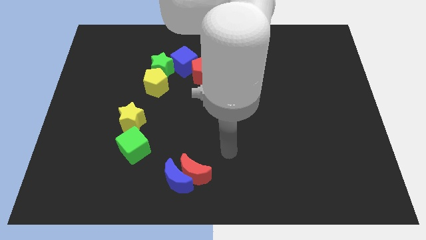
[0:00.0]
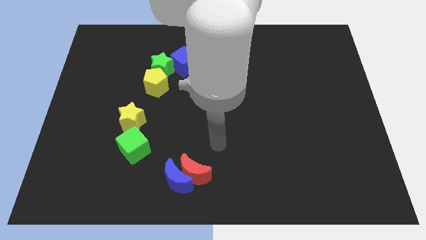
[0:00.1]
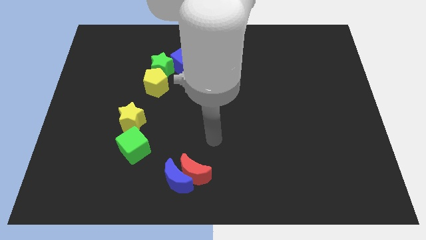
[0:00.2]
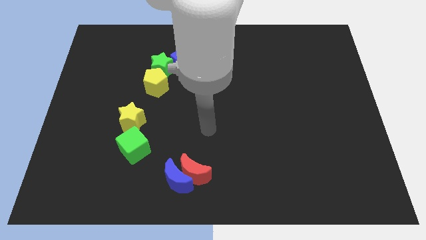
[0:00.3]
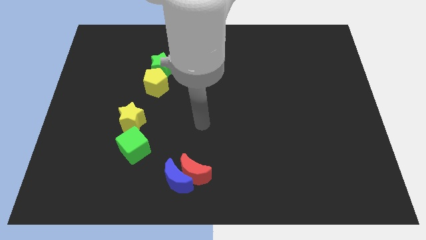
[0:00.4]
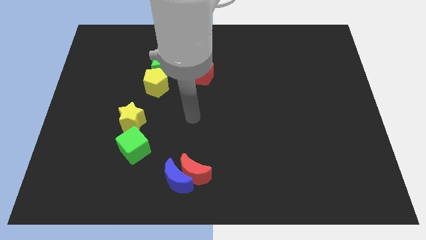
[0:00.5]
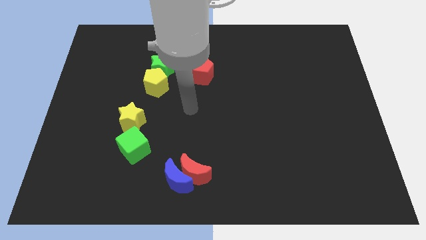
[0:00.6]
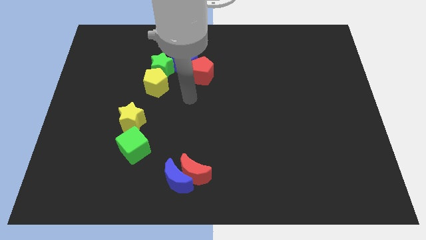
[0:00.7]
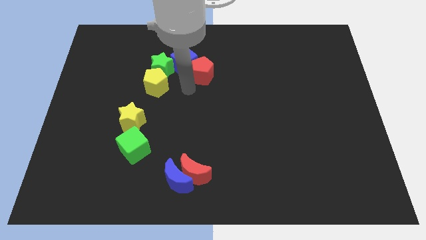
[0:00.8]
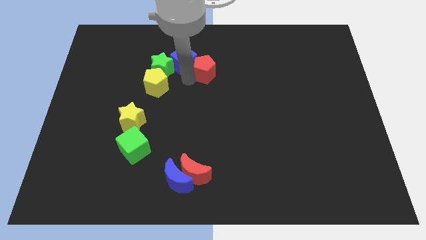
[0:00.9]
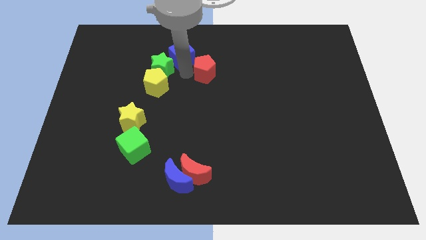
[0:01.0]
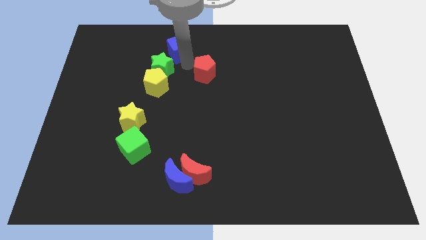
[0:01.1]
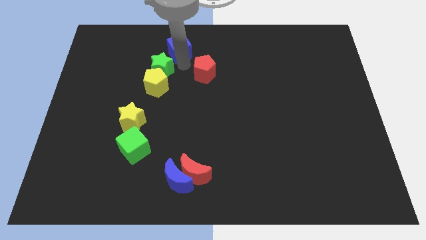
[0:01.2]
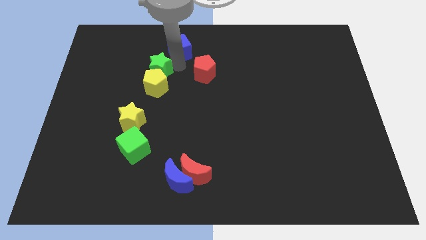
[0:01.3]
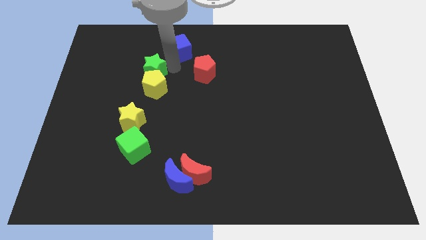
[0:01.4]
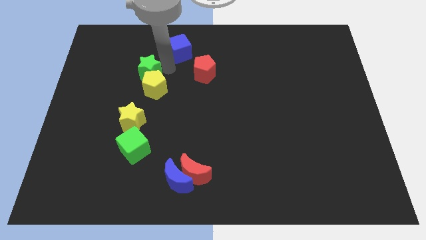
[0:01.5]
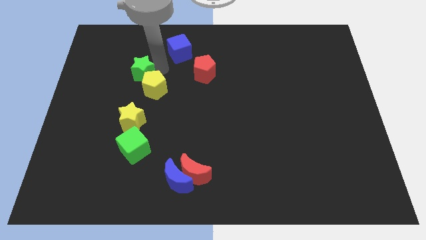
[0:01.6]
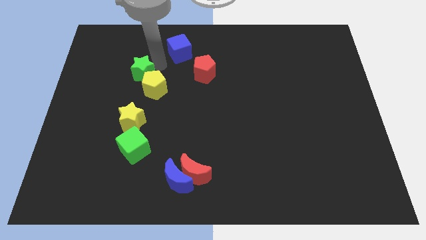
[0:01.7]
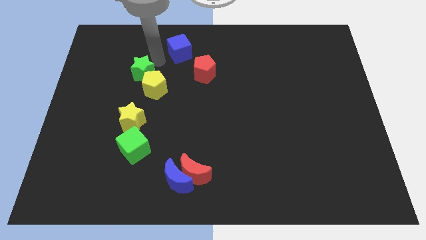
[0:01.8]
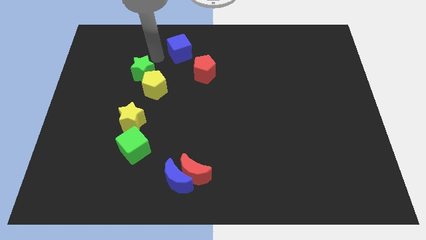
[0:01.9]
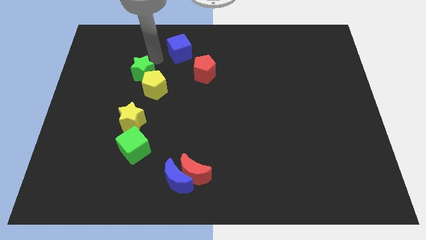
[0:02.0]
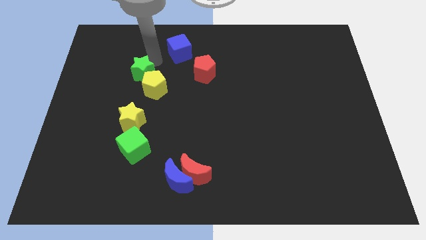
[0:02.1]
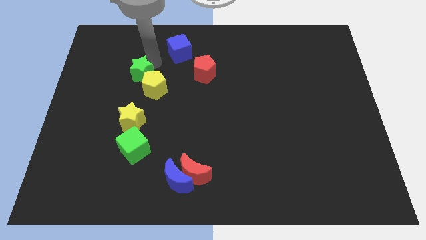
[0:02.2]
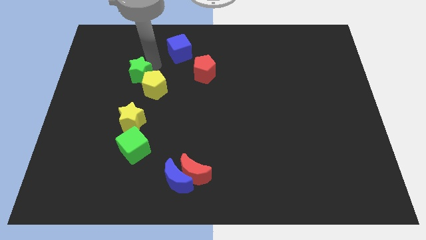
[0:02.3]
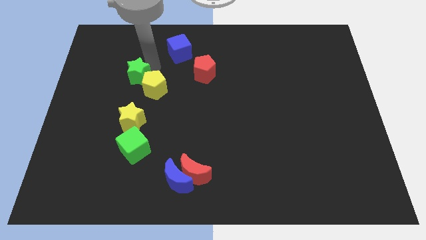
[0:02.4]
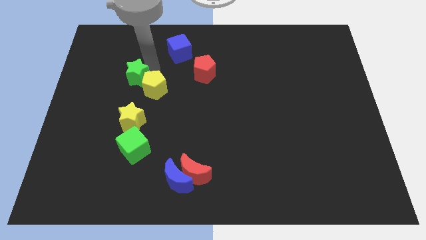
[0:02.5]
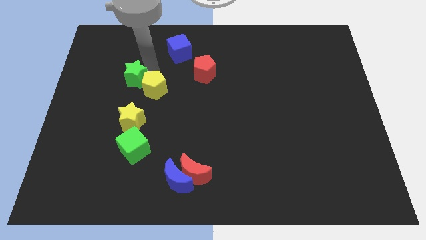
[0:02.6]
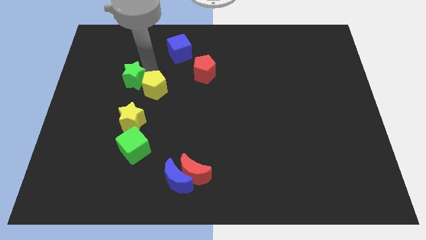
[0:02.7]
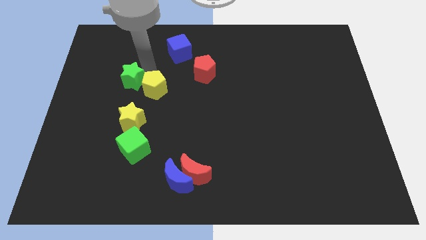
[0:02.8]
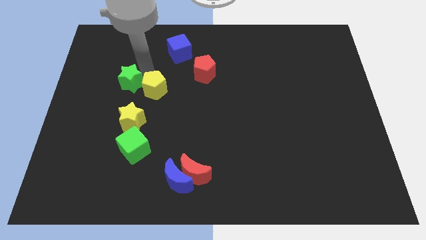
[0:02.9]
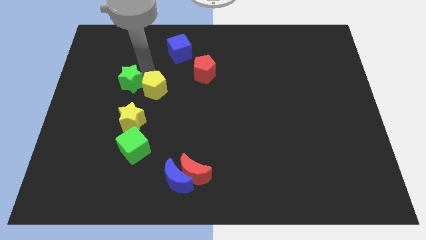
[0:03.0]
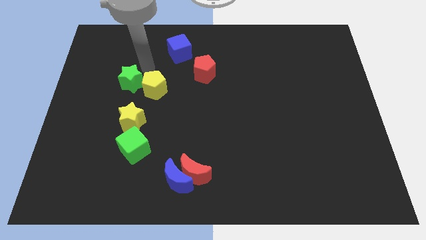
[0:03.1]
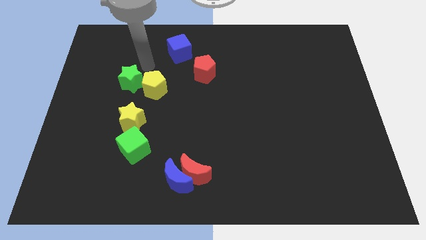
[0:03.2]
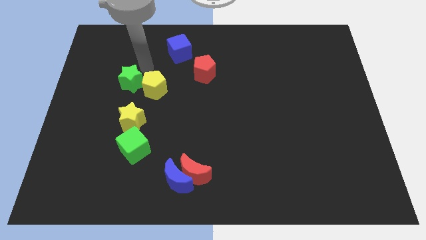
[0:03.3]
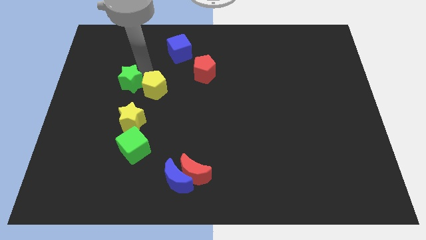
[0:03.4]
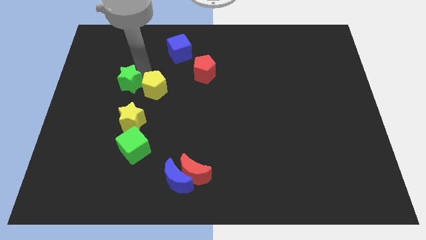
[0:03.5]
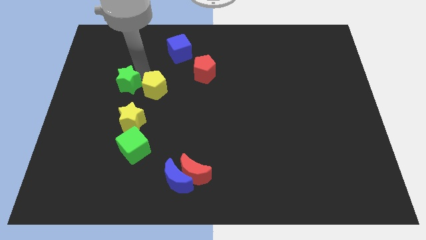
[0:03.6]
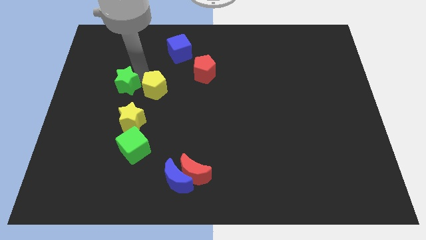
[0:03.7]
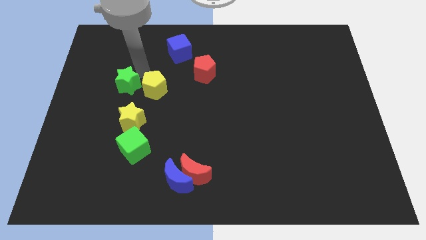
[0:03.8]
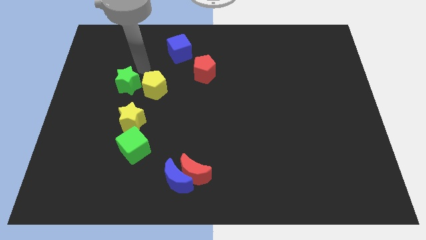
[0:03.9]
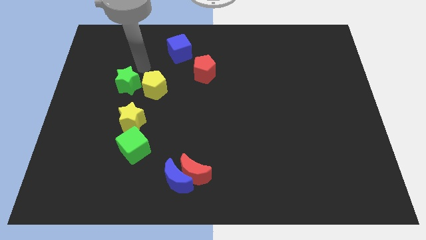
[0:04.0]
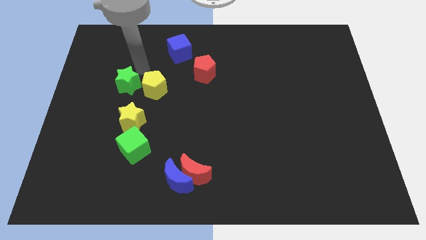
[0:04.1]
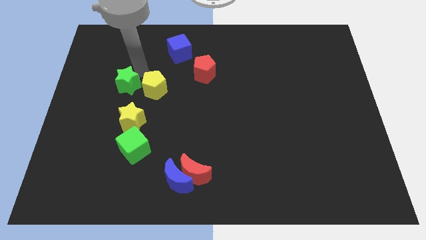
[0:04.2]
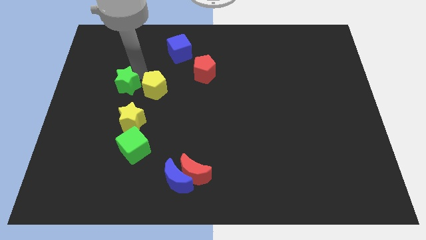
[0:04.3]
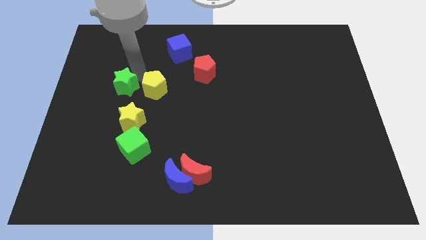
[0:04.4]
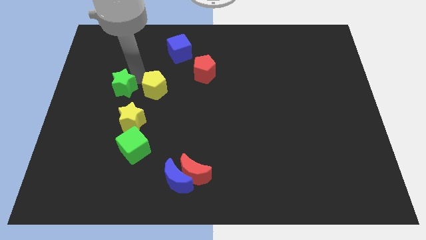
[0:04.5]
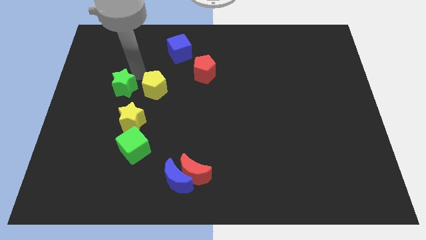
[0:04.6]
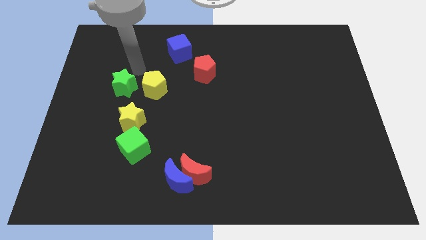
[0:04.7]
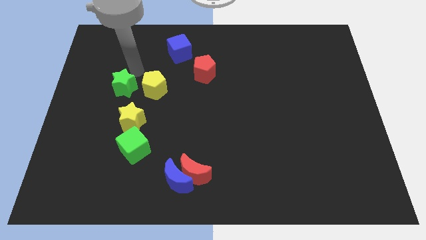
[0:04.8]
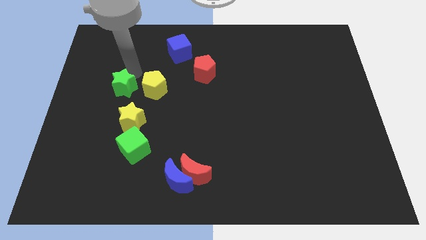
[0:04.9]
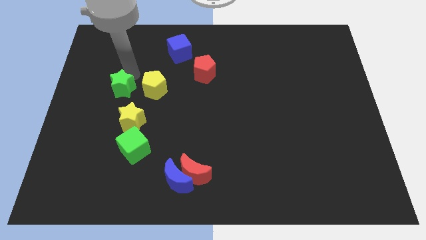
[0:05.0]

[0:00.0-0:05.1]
move the green star to the top left of the yellow star

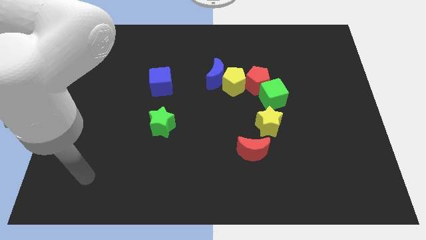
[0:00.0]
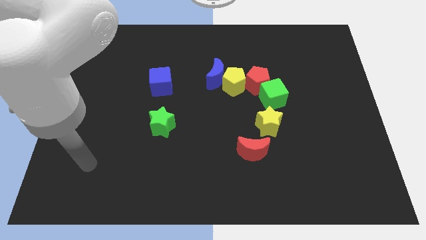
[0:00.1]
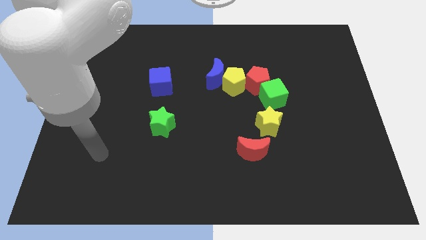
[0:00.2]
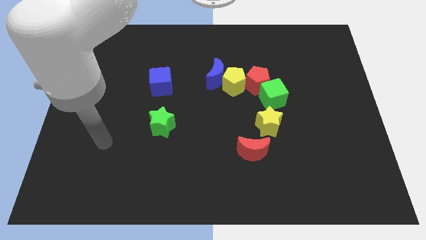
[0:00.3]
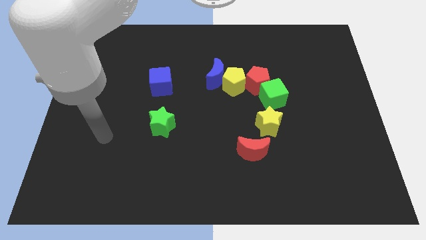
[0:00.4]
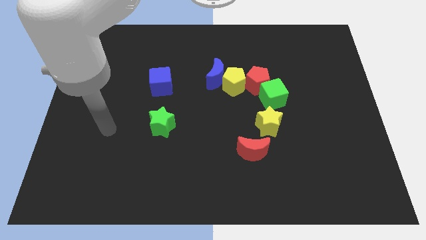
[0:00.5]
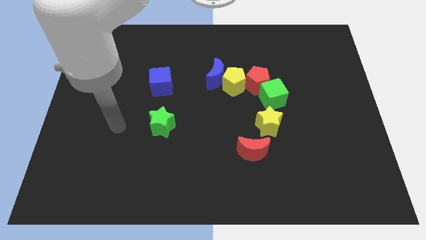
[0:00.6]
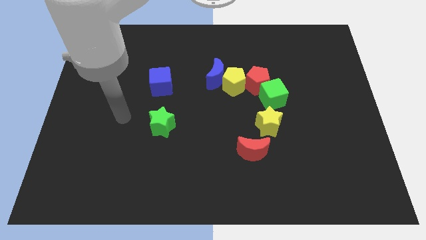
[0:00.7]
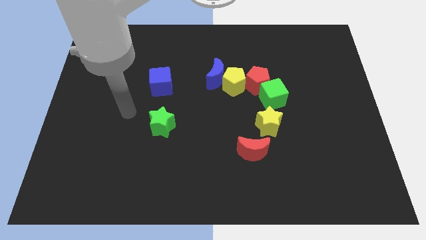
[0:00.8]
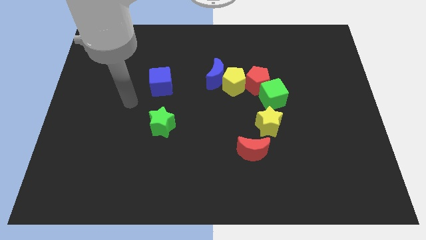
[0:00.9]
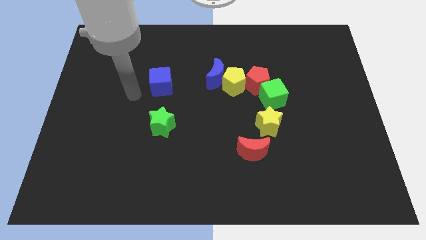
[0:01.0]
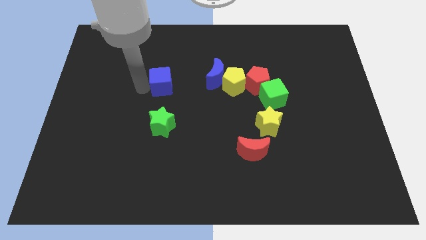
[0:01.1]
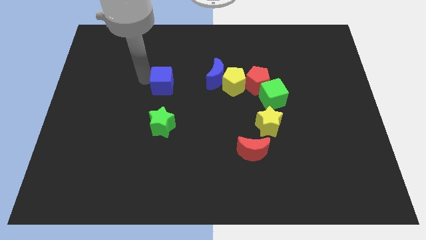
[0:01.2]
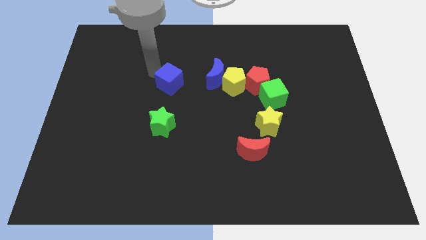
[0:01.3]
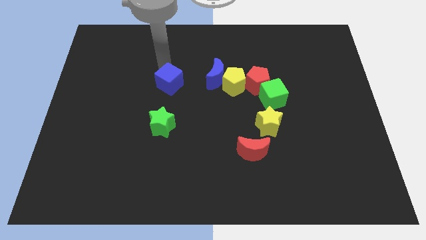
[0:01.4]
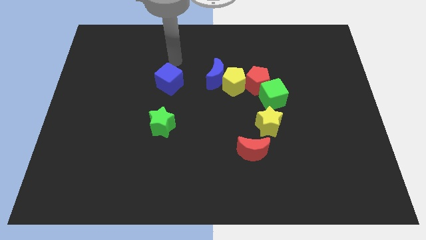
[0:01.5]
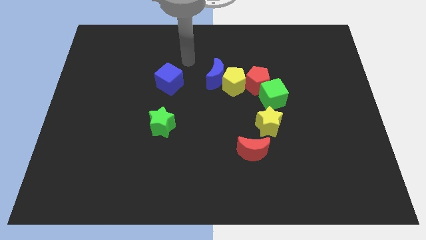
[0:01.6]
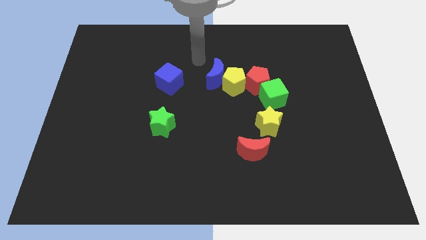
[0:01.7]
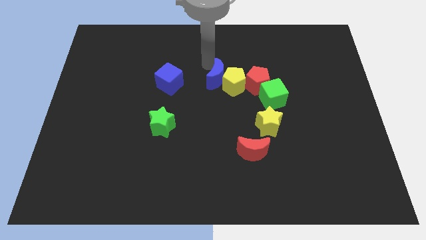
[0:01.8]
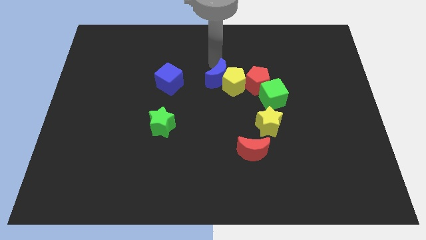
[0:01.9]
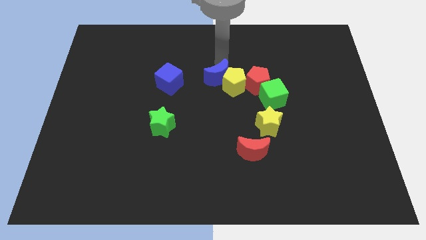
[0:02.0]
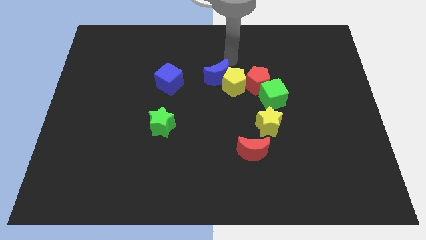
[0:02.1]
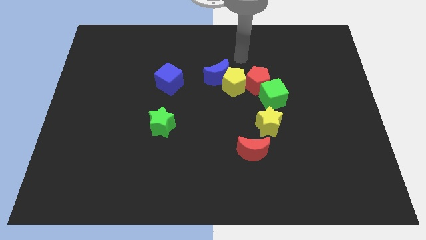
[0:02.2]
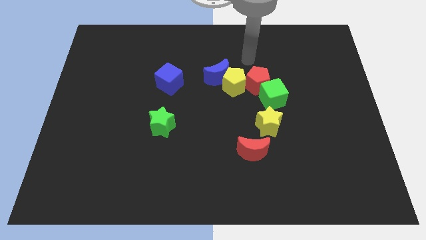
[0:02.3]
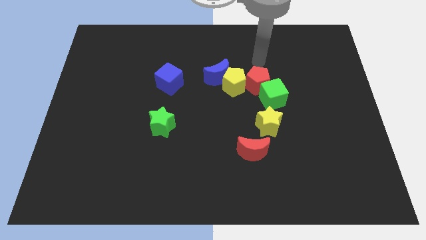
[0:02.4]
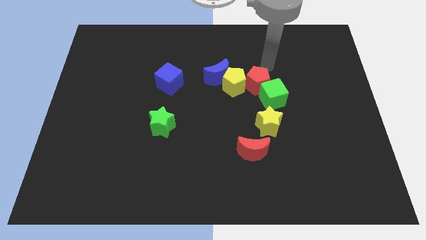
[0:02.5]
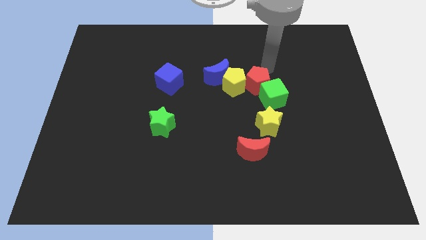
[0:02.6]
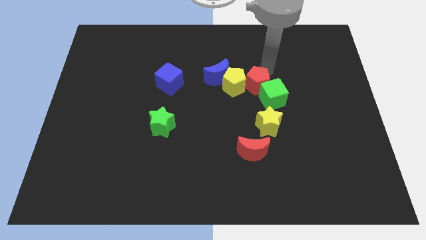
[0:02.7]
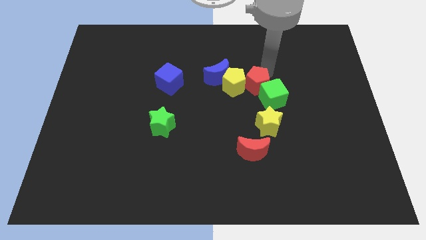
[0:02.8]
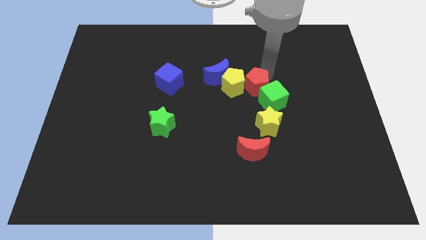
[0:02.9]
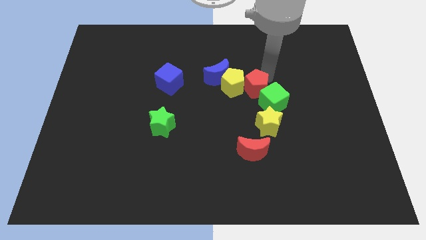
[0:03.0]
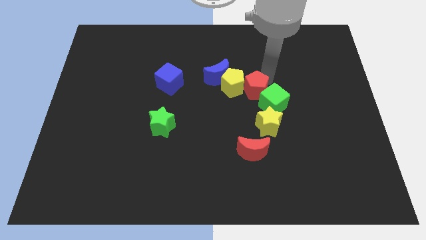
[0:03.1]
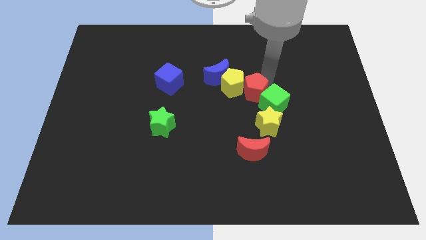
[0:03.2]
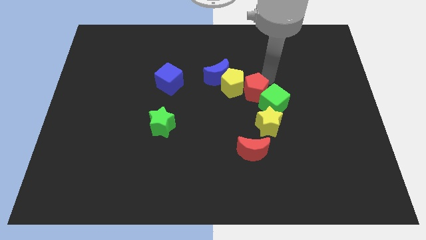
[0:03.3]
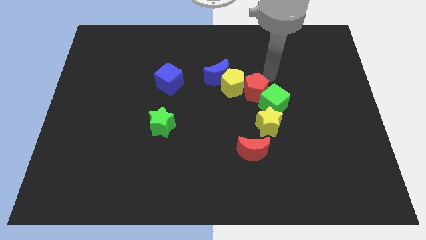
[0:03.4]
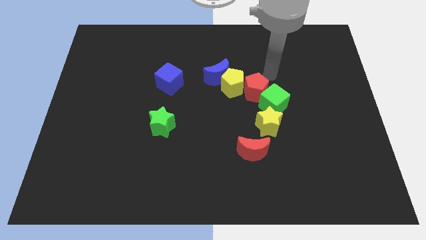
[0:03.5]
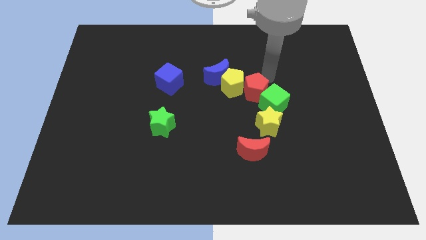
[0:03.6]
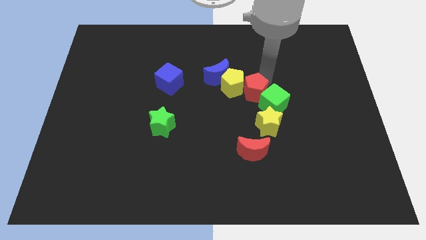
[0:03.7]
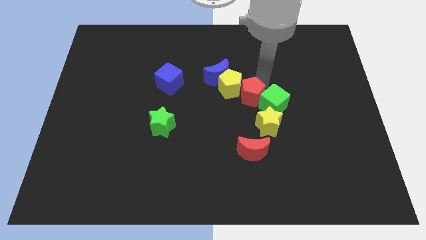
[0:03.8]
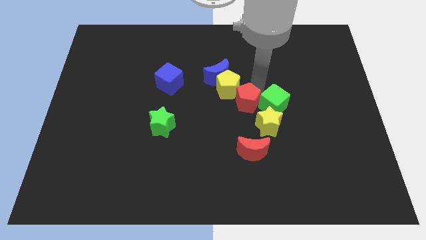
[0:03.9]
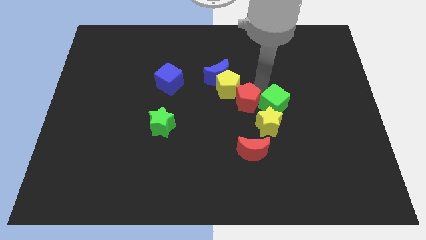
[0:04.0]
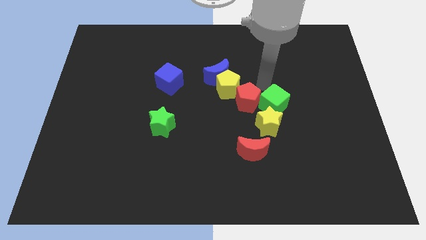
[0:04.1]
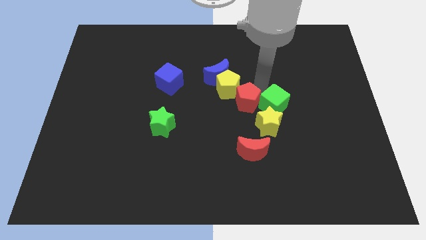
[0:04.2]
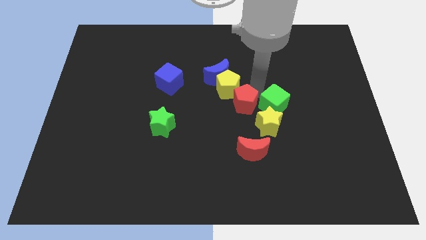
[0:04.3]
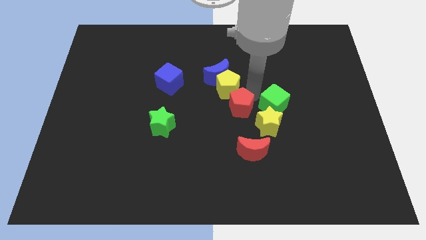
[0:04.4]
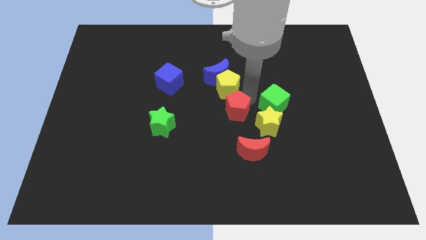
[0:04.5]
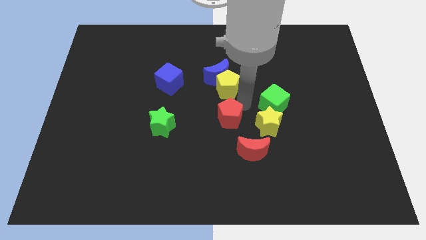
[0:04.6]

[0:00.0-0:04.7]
move the red pentagon to the right of the green star
